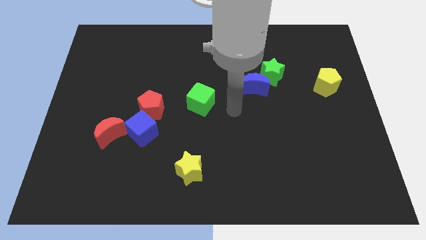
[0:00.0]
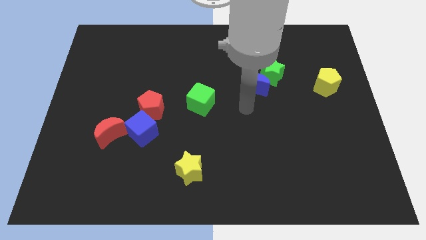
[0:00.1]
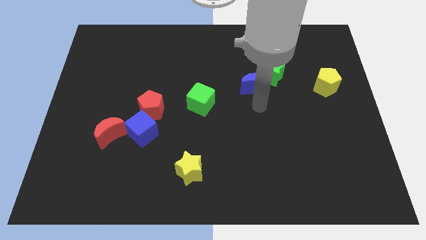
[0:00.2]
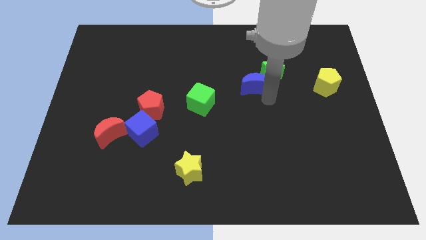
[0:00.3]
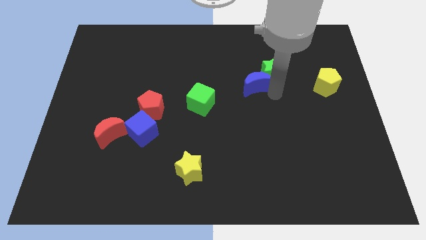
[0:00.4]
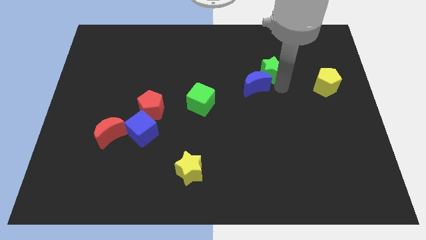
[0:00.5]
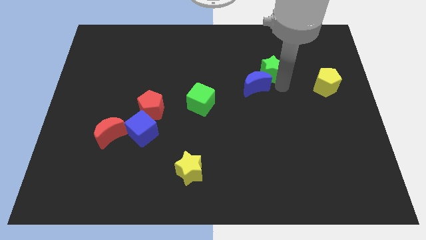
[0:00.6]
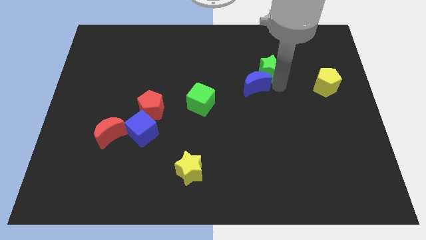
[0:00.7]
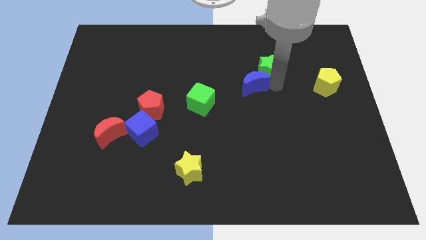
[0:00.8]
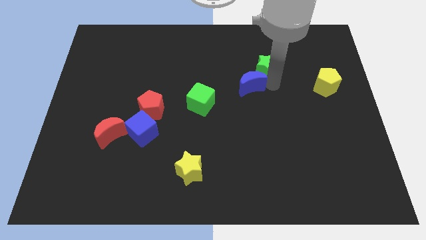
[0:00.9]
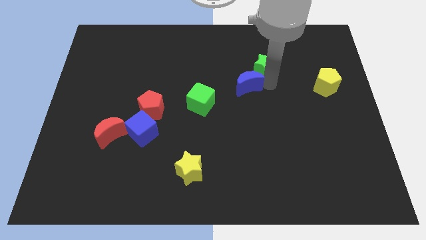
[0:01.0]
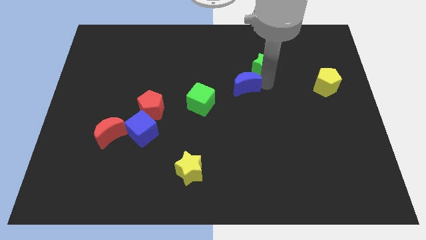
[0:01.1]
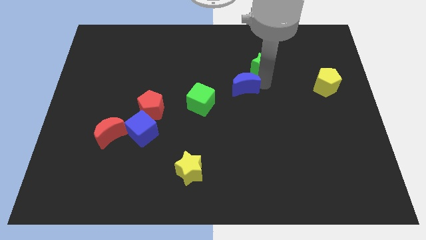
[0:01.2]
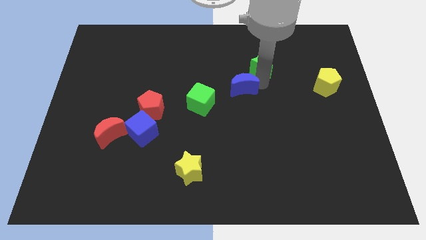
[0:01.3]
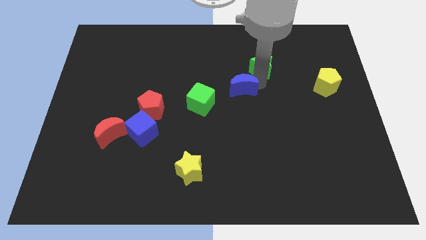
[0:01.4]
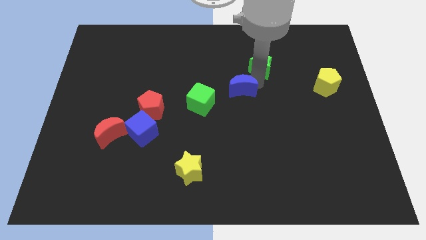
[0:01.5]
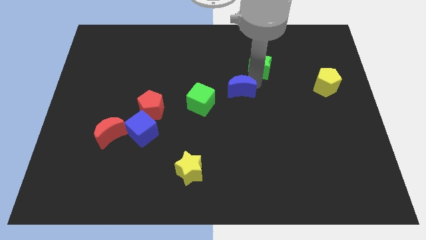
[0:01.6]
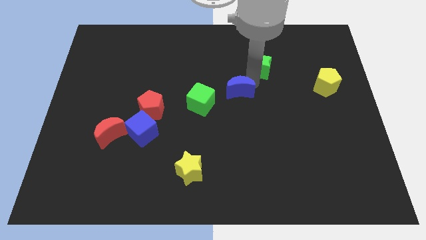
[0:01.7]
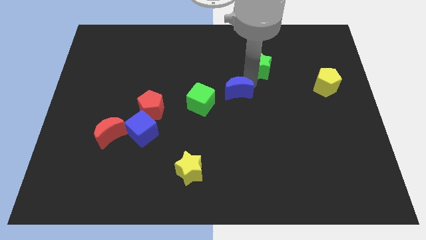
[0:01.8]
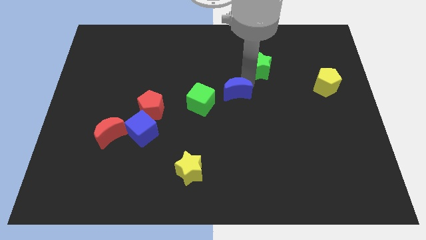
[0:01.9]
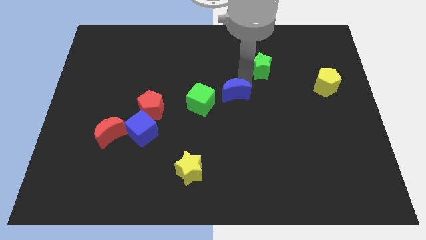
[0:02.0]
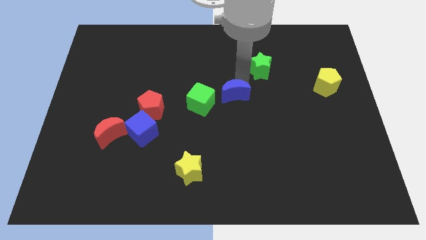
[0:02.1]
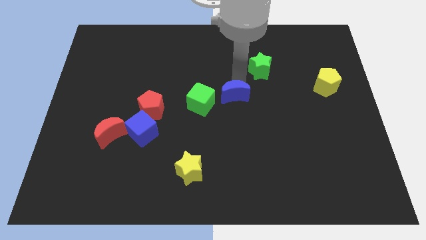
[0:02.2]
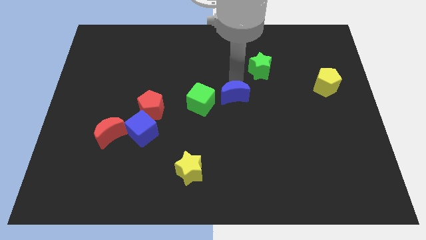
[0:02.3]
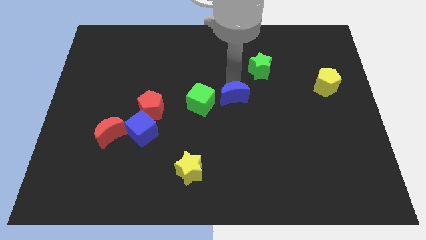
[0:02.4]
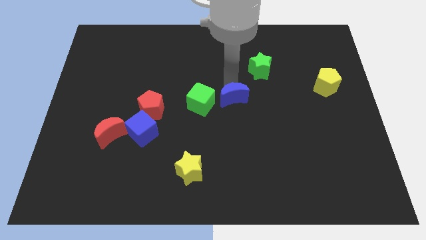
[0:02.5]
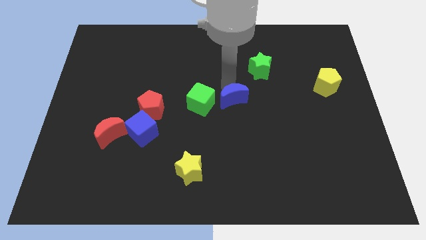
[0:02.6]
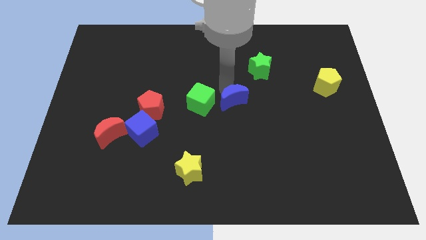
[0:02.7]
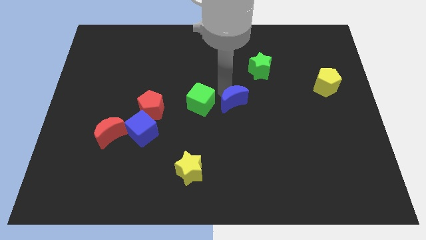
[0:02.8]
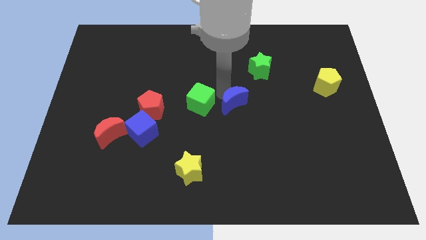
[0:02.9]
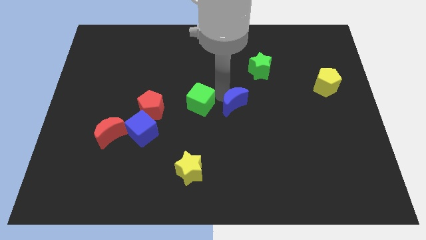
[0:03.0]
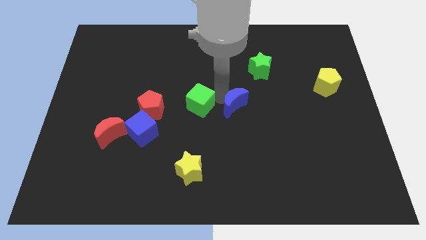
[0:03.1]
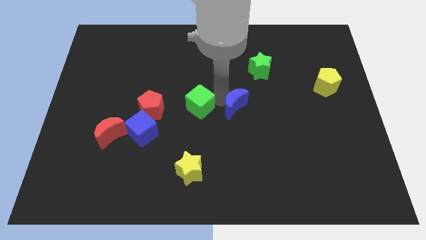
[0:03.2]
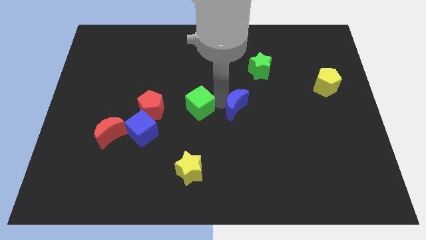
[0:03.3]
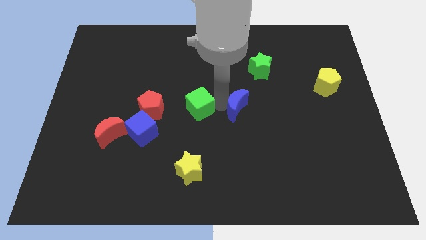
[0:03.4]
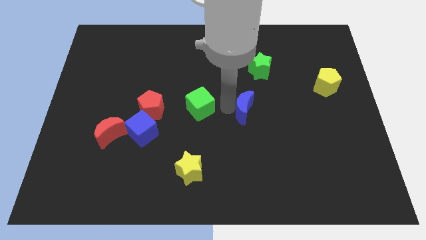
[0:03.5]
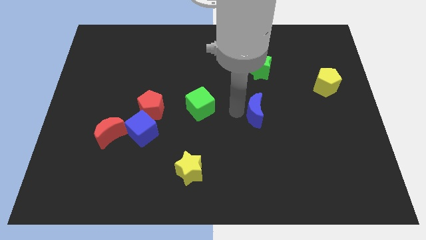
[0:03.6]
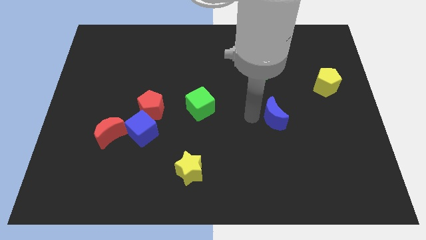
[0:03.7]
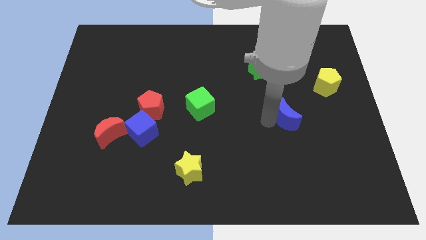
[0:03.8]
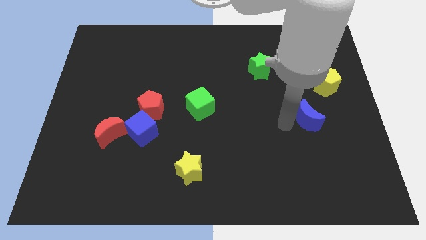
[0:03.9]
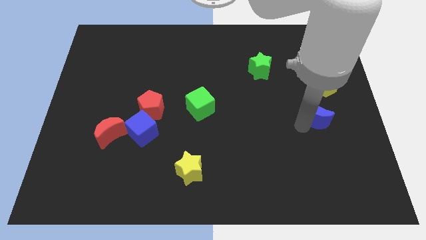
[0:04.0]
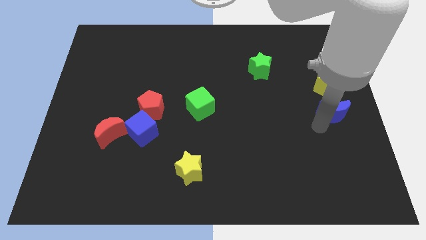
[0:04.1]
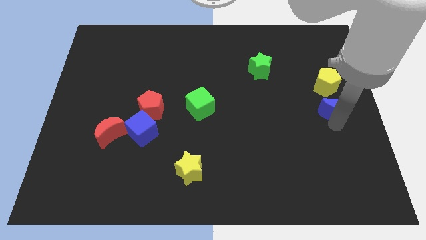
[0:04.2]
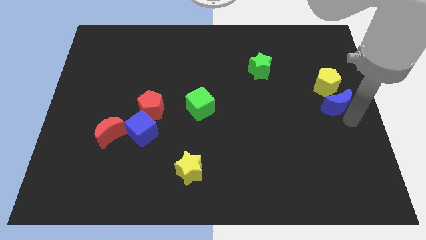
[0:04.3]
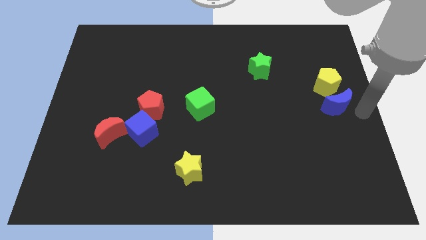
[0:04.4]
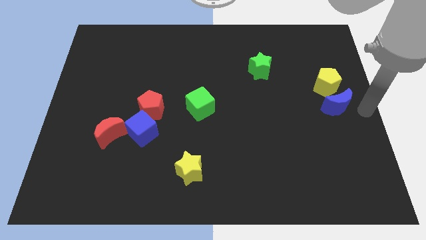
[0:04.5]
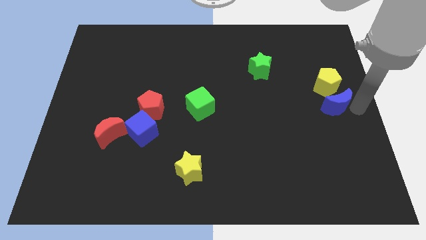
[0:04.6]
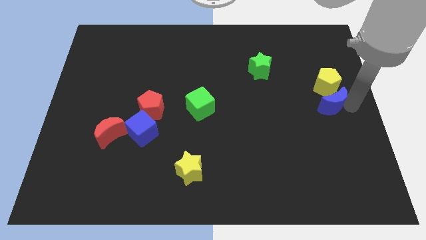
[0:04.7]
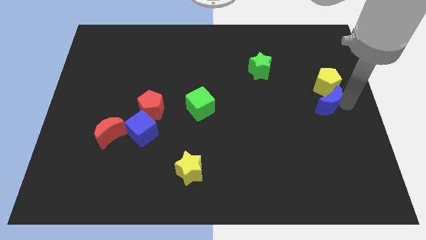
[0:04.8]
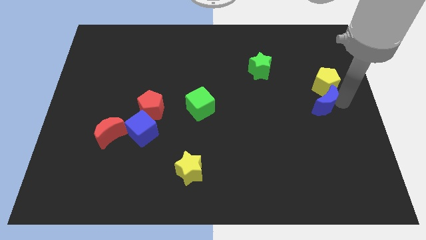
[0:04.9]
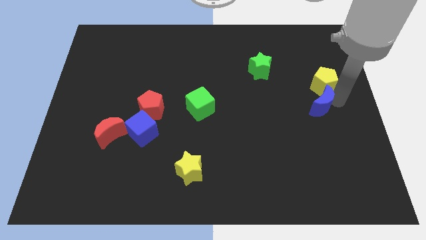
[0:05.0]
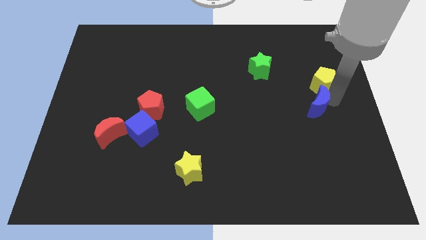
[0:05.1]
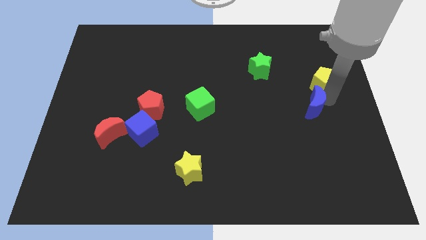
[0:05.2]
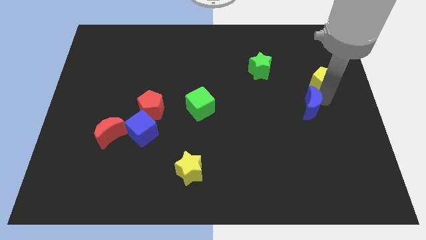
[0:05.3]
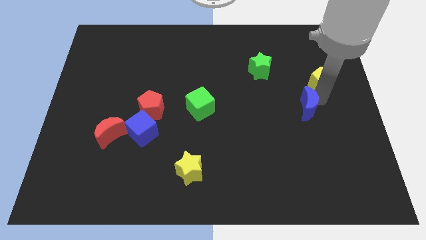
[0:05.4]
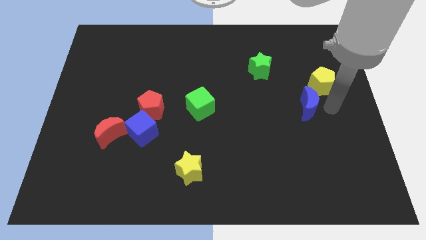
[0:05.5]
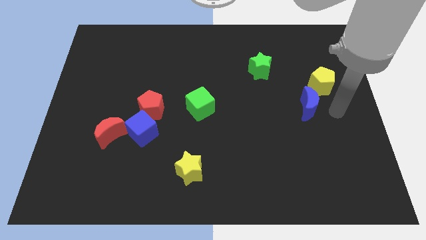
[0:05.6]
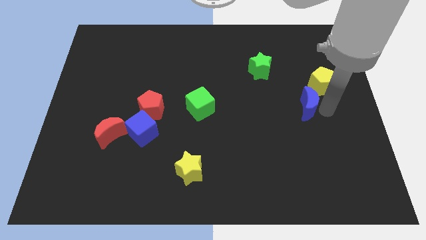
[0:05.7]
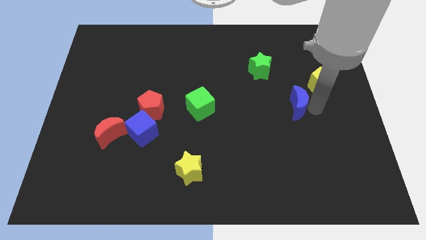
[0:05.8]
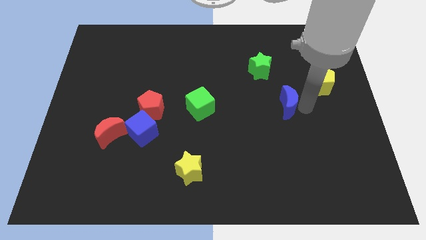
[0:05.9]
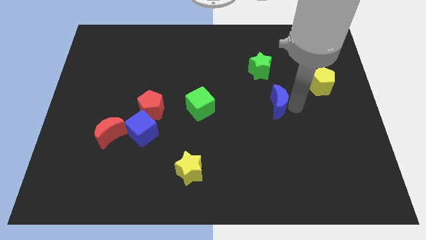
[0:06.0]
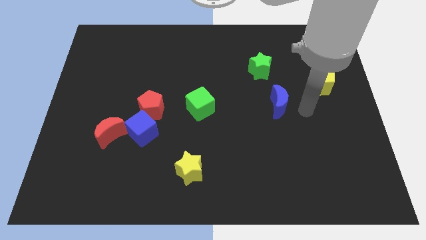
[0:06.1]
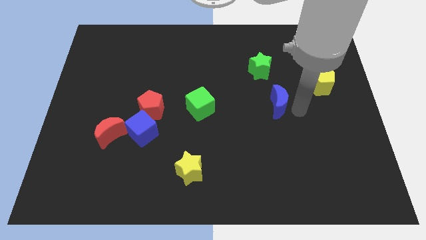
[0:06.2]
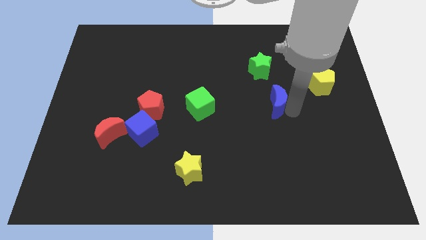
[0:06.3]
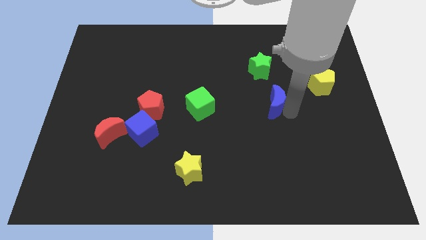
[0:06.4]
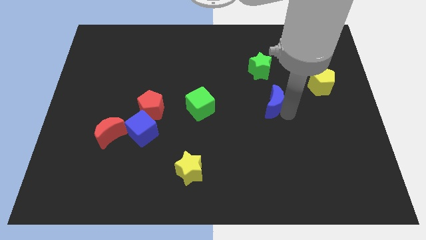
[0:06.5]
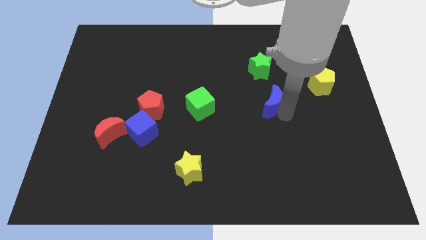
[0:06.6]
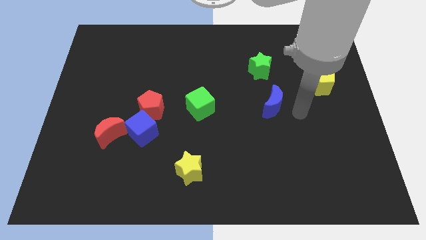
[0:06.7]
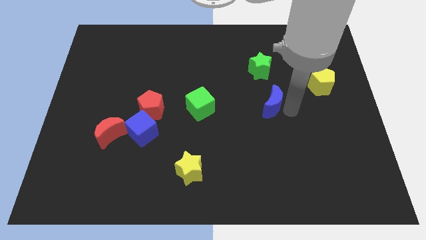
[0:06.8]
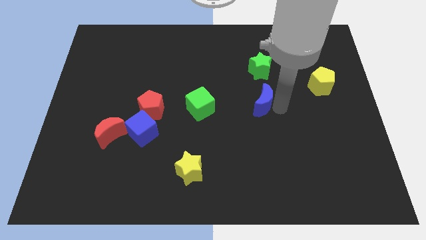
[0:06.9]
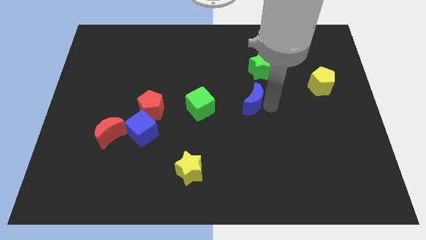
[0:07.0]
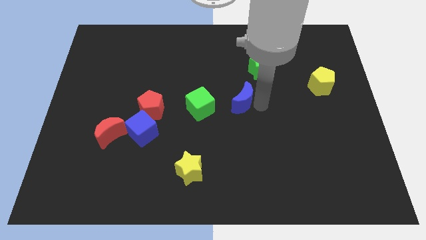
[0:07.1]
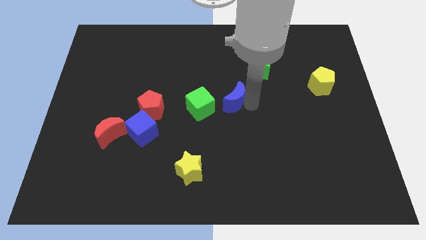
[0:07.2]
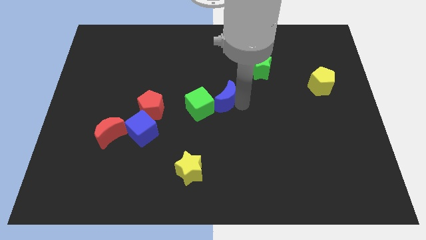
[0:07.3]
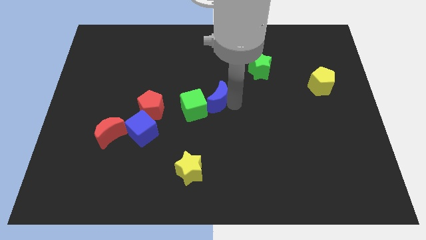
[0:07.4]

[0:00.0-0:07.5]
slightly move the blue moon to the left
